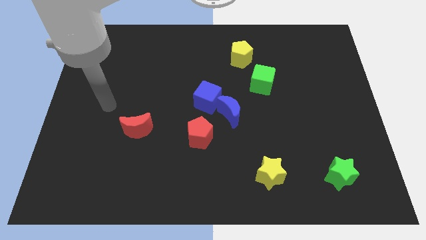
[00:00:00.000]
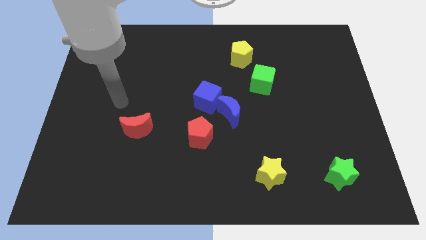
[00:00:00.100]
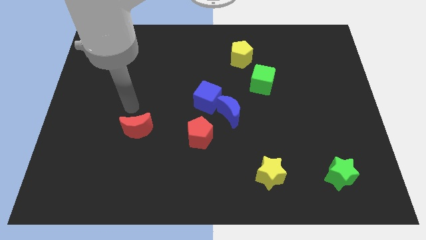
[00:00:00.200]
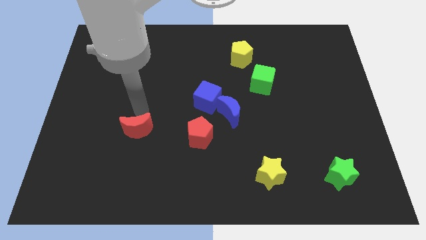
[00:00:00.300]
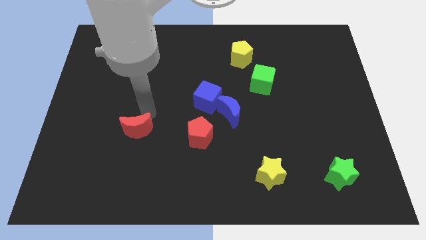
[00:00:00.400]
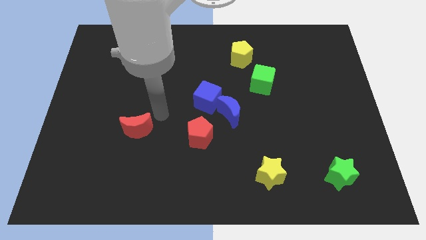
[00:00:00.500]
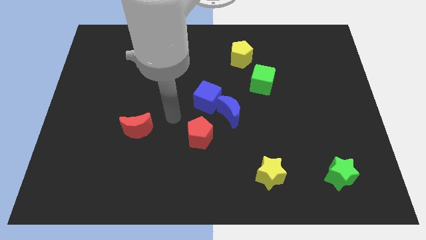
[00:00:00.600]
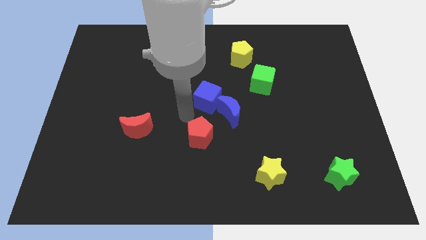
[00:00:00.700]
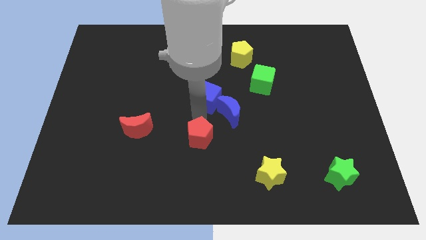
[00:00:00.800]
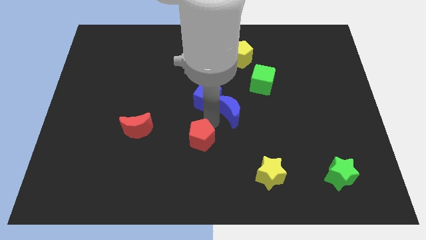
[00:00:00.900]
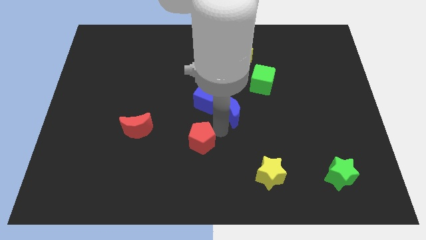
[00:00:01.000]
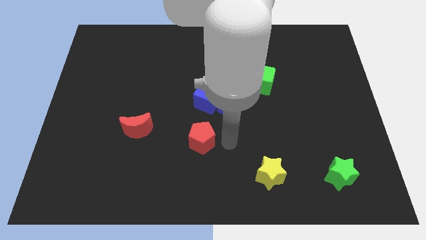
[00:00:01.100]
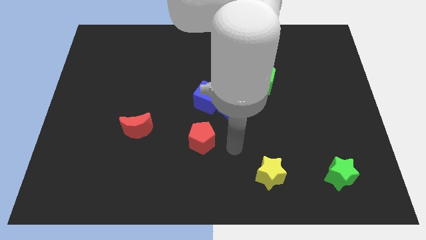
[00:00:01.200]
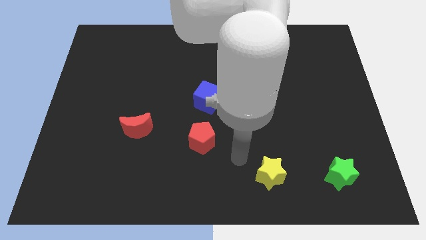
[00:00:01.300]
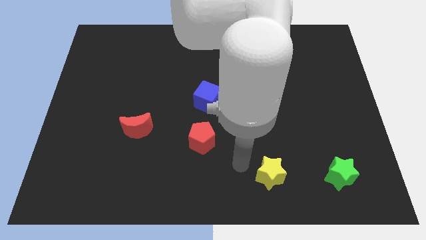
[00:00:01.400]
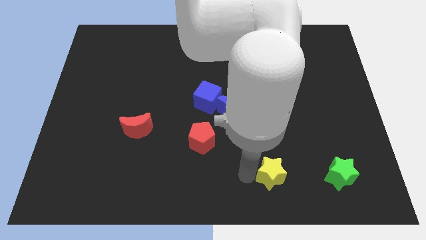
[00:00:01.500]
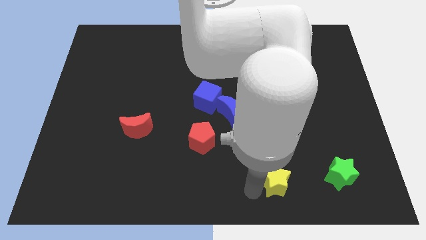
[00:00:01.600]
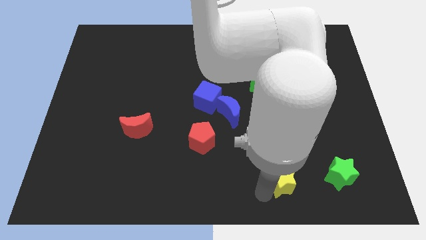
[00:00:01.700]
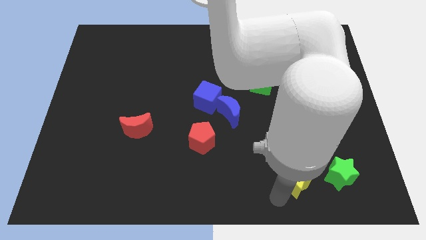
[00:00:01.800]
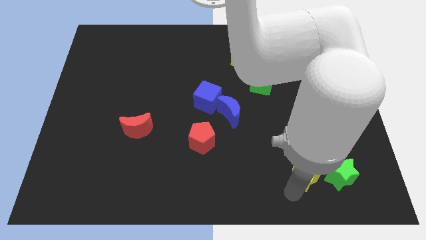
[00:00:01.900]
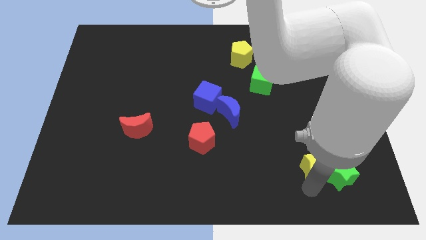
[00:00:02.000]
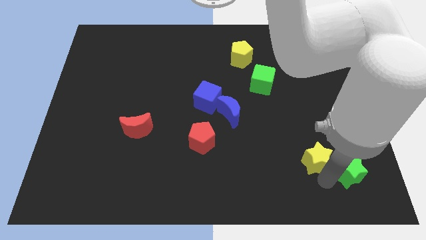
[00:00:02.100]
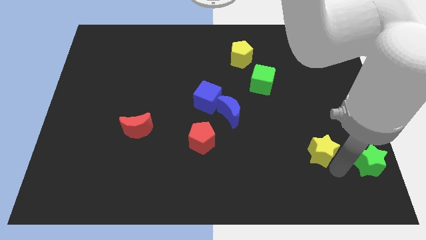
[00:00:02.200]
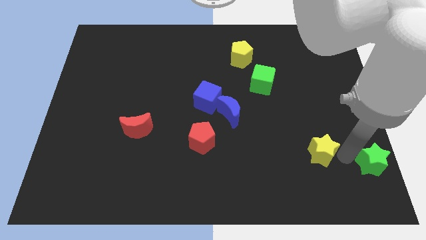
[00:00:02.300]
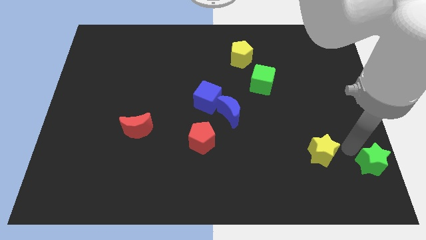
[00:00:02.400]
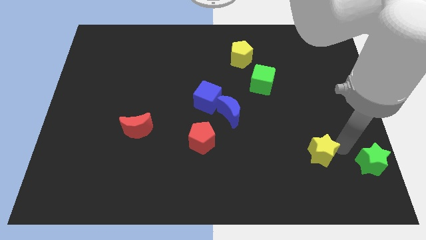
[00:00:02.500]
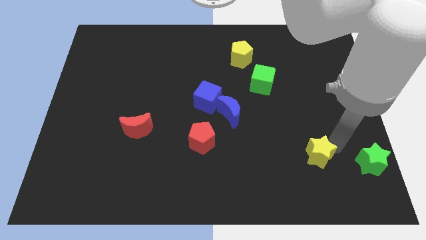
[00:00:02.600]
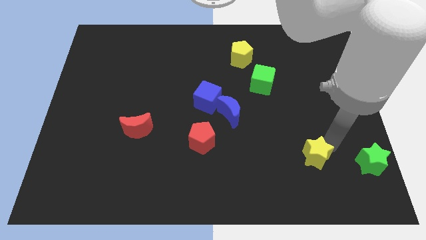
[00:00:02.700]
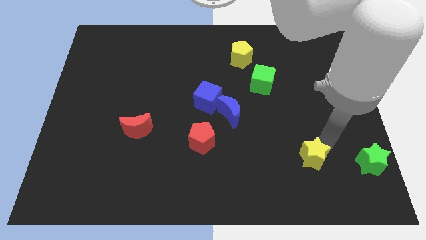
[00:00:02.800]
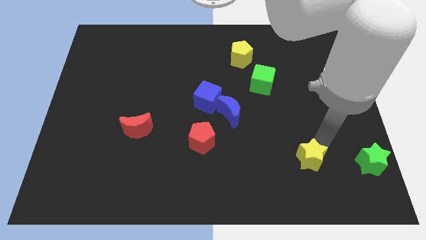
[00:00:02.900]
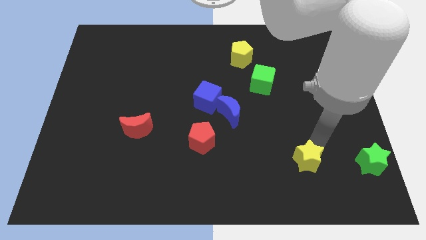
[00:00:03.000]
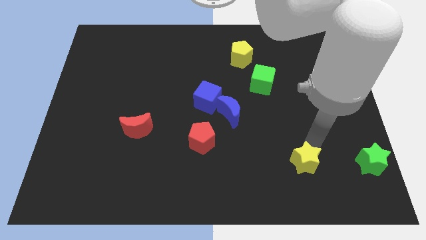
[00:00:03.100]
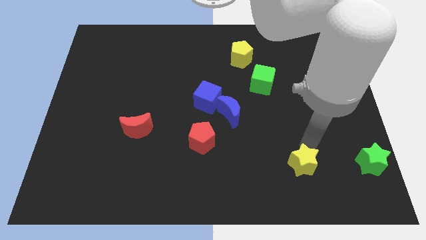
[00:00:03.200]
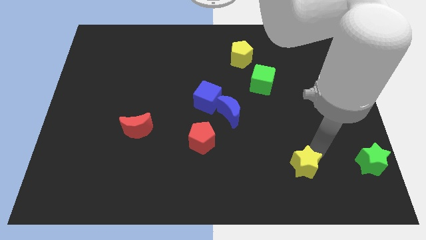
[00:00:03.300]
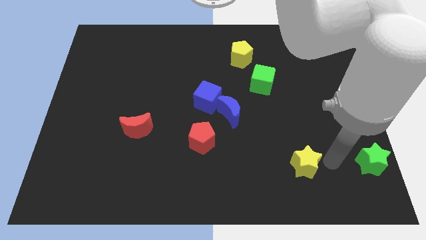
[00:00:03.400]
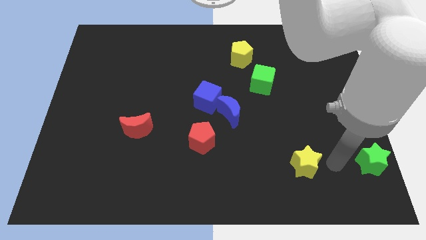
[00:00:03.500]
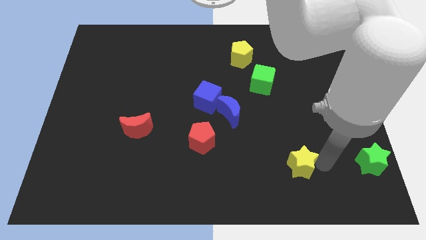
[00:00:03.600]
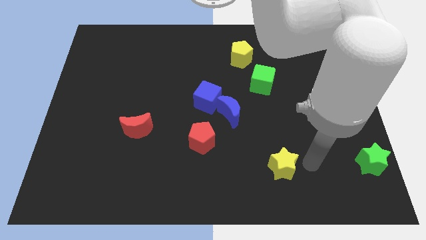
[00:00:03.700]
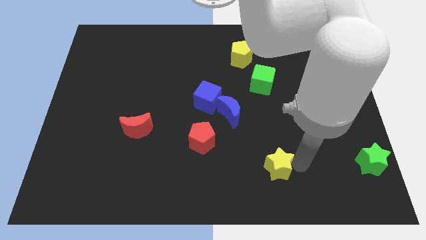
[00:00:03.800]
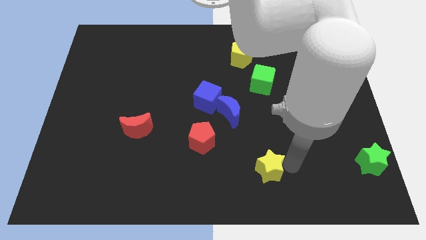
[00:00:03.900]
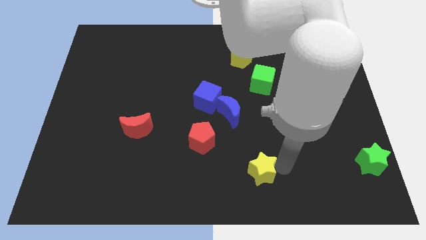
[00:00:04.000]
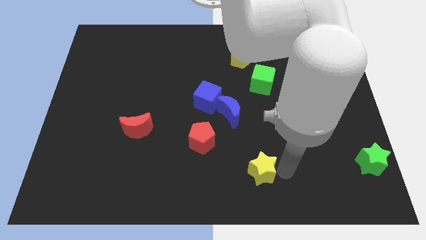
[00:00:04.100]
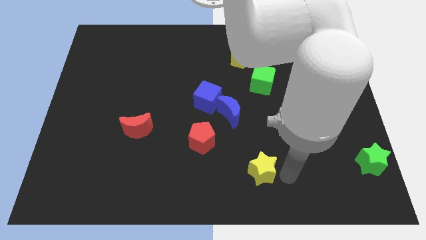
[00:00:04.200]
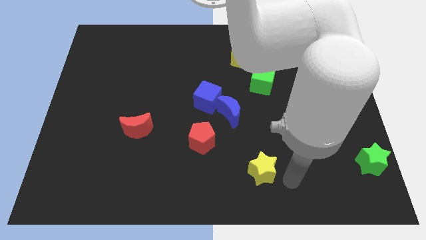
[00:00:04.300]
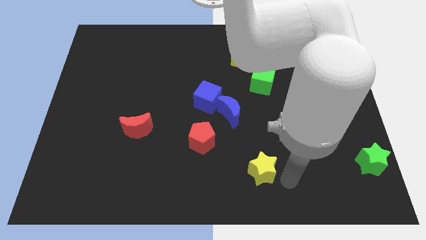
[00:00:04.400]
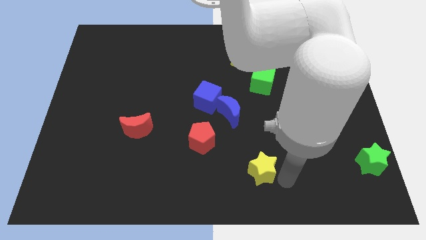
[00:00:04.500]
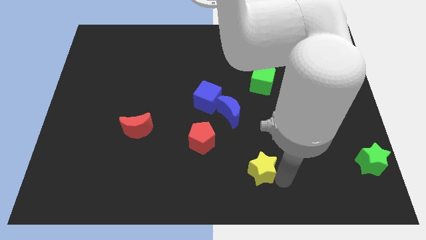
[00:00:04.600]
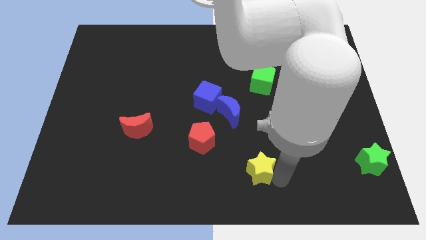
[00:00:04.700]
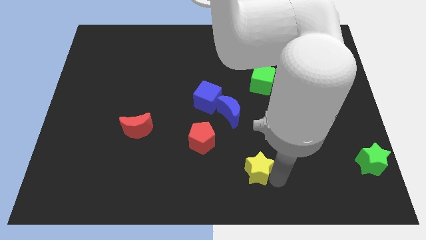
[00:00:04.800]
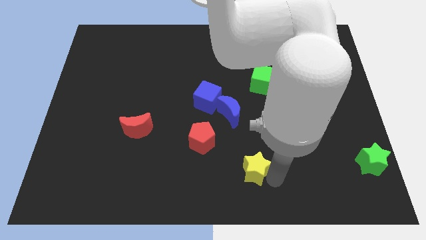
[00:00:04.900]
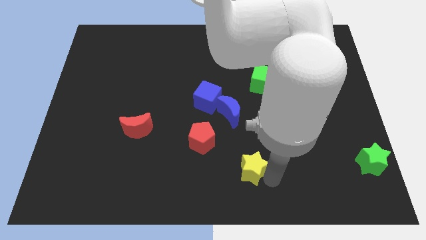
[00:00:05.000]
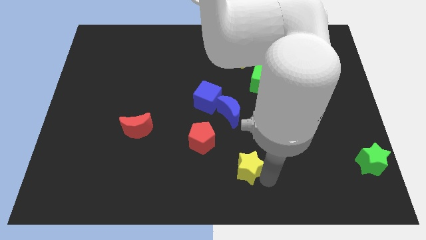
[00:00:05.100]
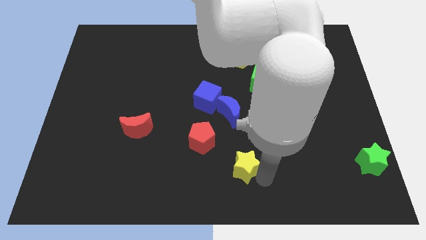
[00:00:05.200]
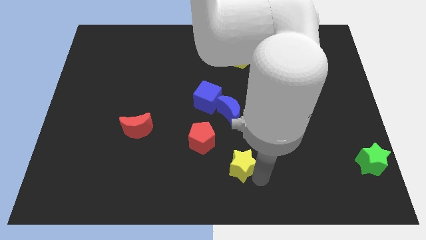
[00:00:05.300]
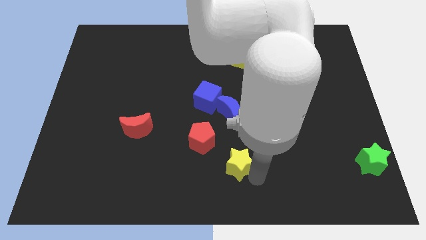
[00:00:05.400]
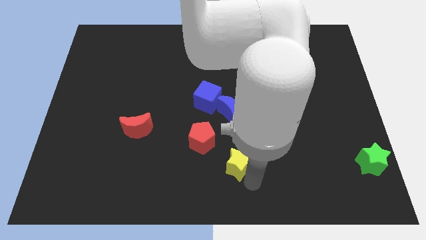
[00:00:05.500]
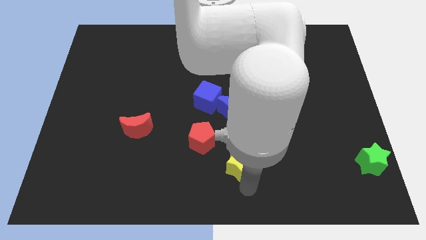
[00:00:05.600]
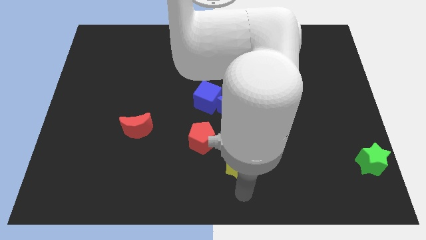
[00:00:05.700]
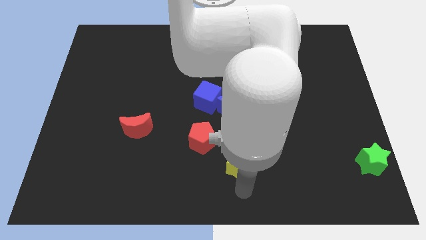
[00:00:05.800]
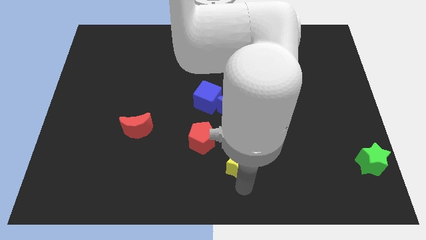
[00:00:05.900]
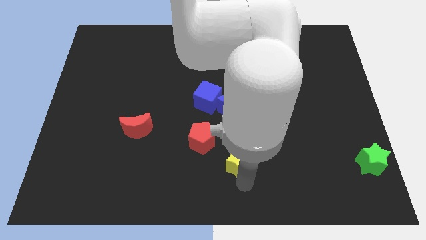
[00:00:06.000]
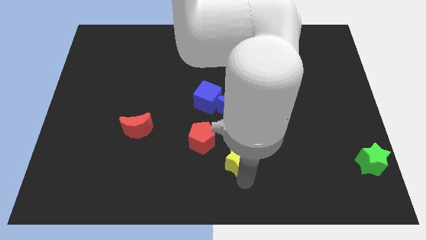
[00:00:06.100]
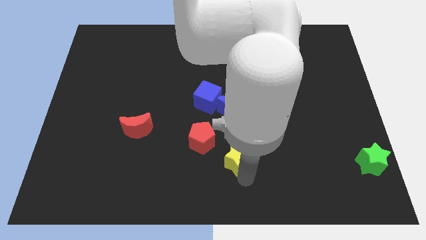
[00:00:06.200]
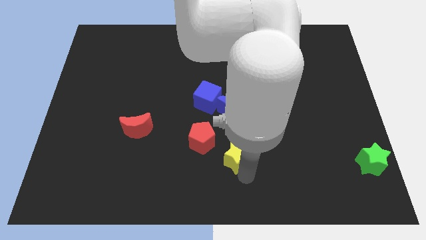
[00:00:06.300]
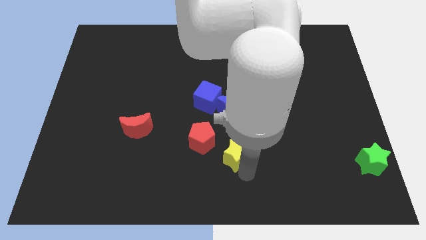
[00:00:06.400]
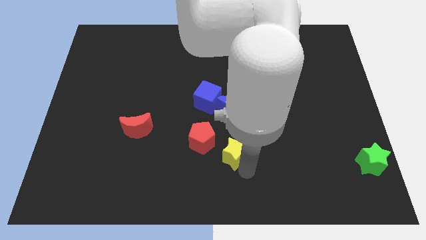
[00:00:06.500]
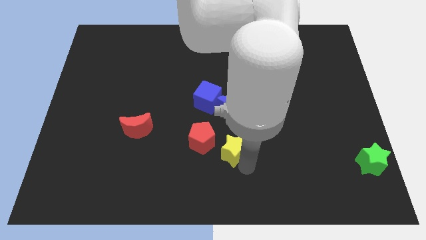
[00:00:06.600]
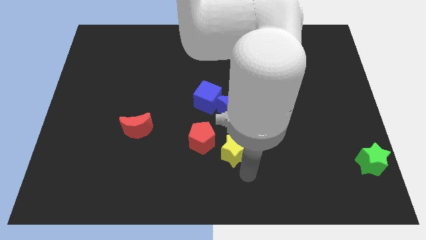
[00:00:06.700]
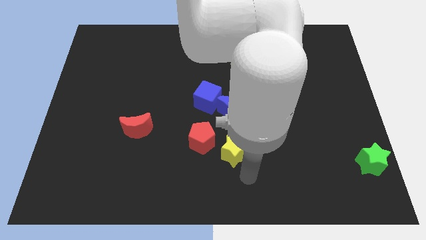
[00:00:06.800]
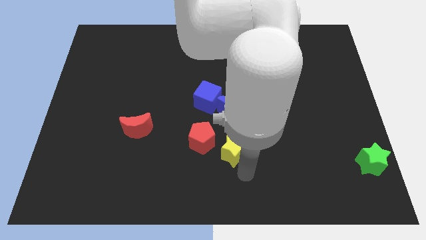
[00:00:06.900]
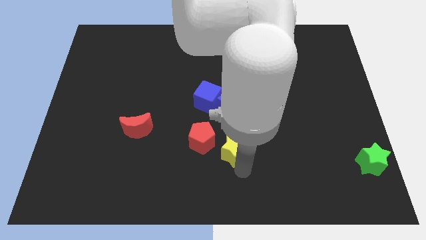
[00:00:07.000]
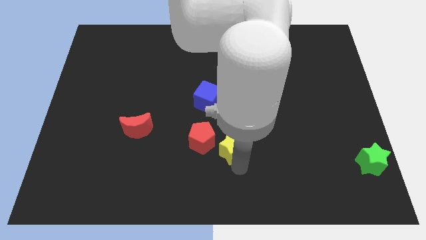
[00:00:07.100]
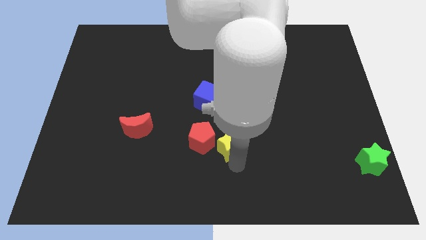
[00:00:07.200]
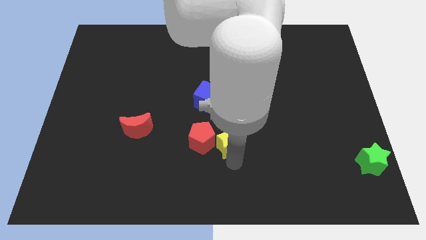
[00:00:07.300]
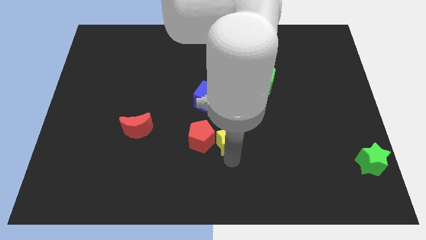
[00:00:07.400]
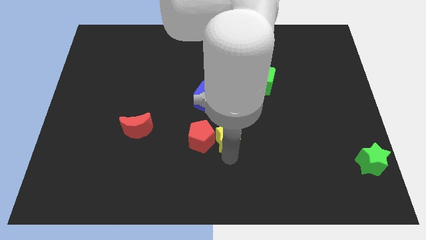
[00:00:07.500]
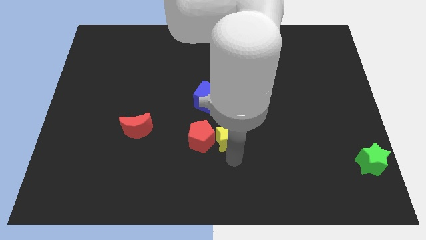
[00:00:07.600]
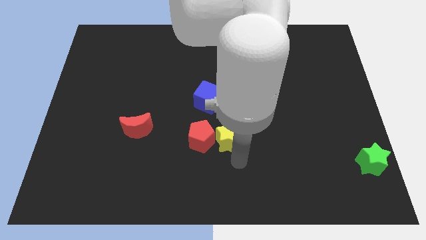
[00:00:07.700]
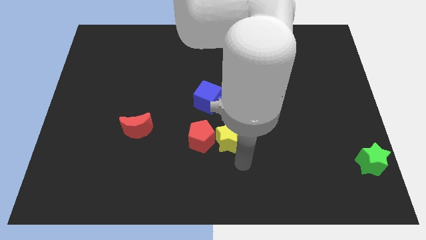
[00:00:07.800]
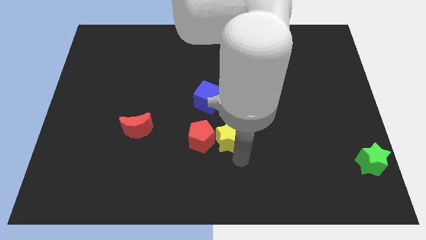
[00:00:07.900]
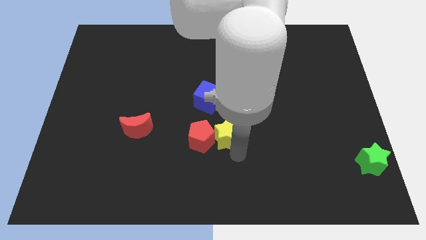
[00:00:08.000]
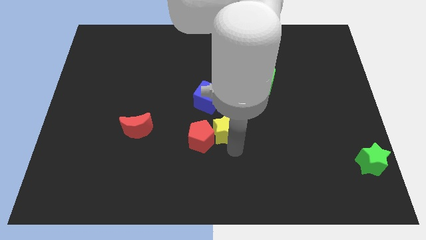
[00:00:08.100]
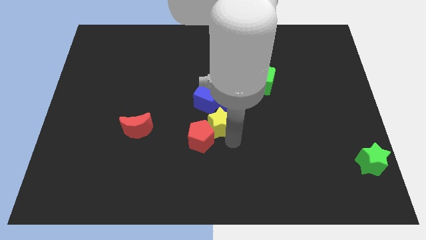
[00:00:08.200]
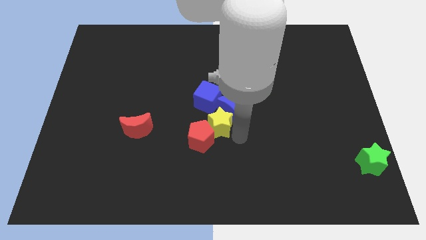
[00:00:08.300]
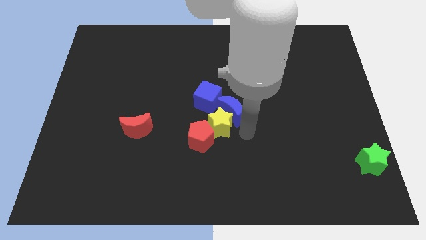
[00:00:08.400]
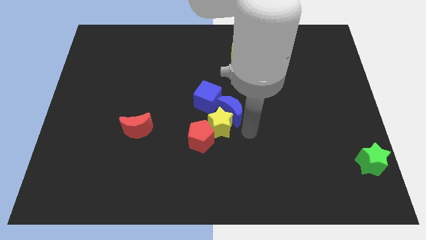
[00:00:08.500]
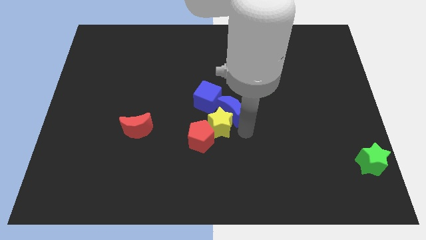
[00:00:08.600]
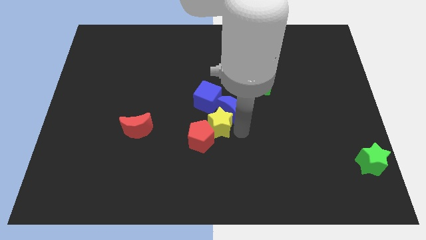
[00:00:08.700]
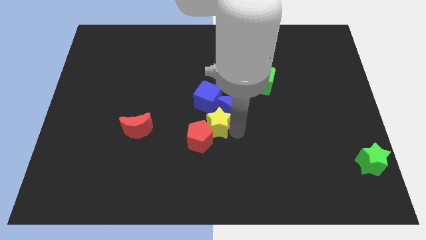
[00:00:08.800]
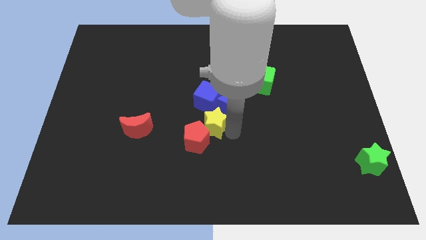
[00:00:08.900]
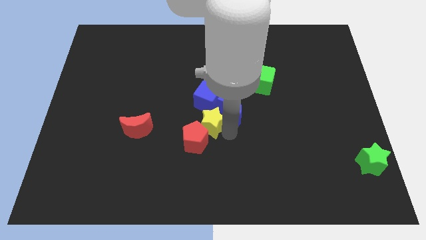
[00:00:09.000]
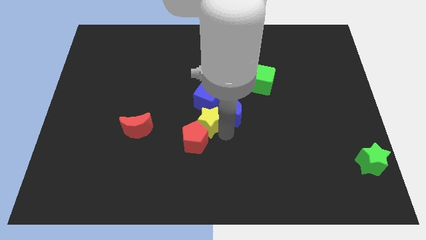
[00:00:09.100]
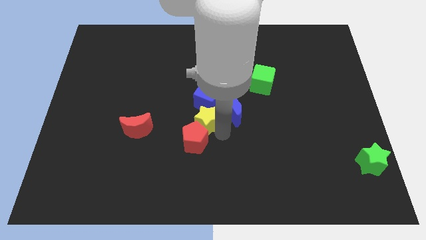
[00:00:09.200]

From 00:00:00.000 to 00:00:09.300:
move the yellow star diagonally down and to the left of the blue cube
